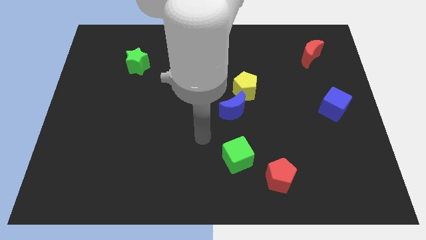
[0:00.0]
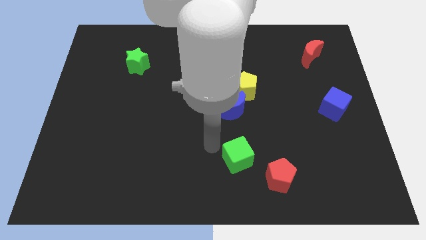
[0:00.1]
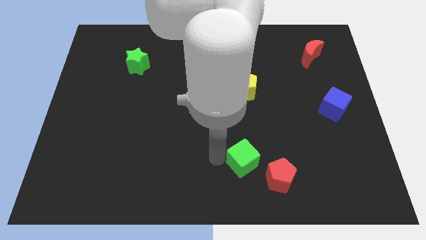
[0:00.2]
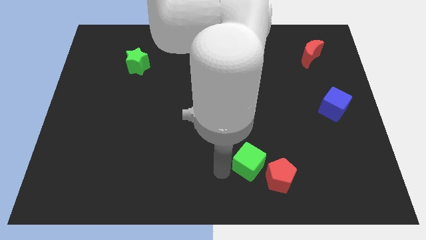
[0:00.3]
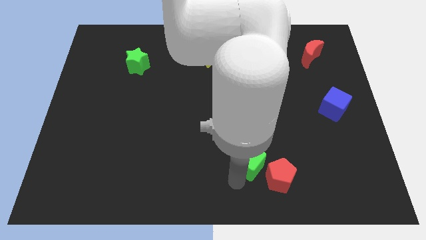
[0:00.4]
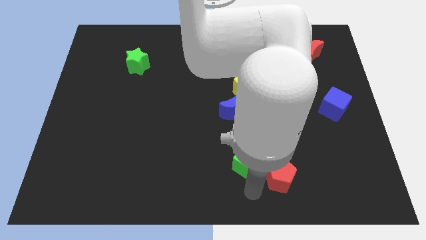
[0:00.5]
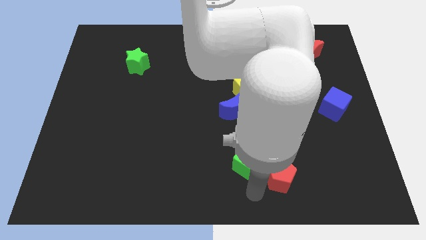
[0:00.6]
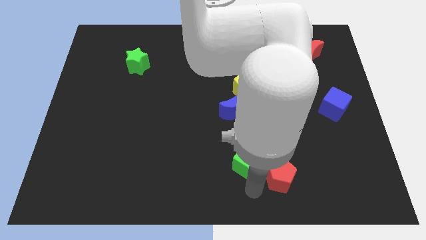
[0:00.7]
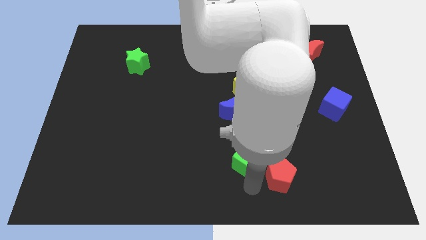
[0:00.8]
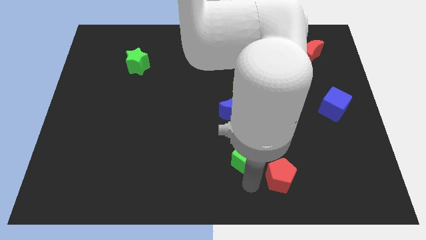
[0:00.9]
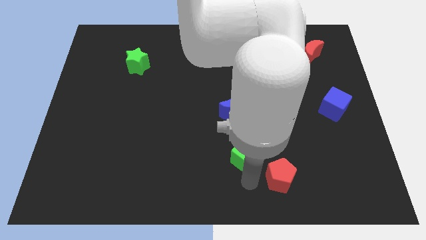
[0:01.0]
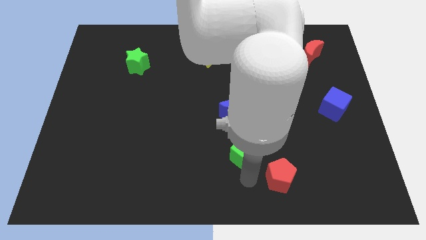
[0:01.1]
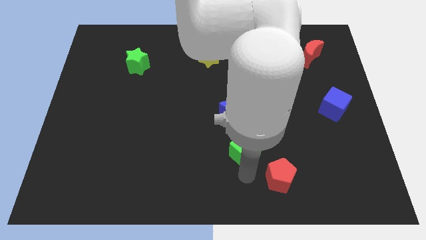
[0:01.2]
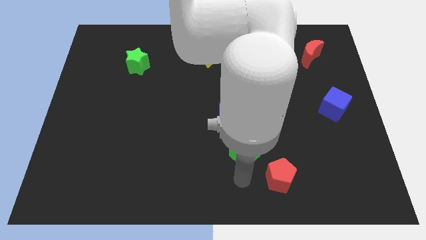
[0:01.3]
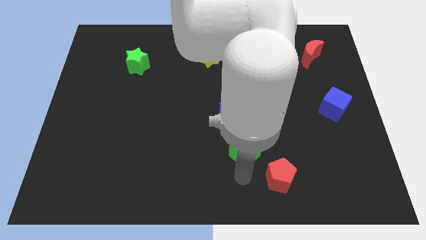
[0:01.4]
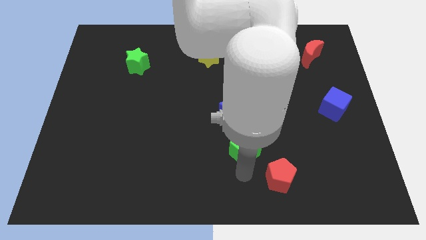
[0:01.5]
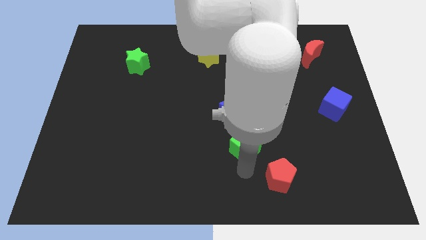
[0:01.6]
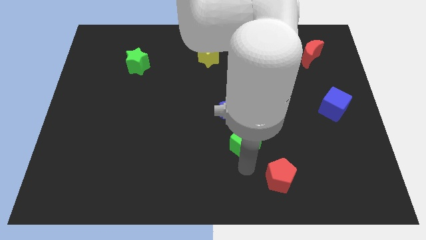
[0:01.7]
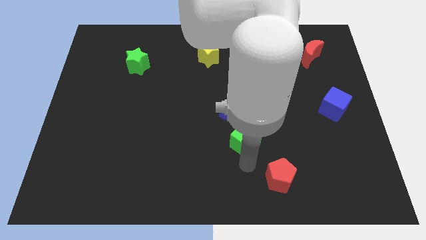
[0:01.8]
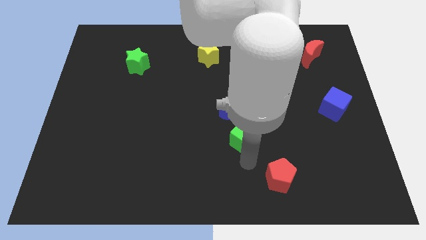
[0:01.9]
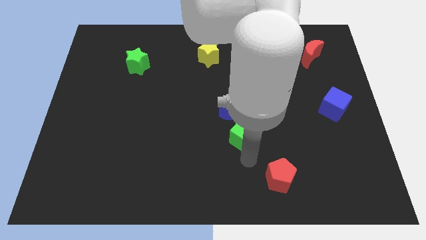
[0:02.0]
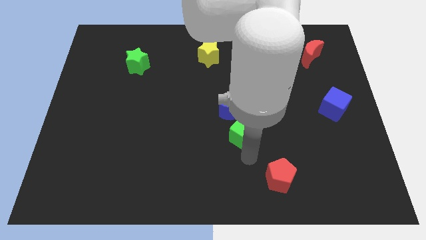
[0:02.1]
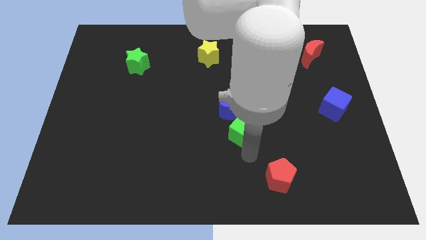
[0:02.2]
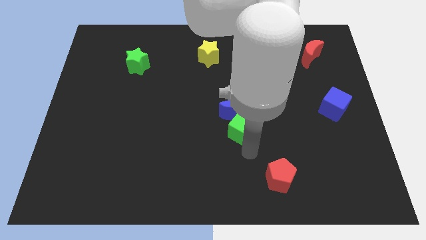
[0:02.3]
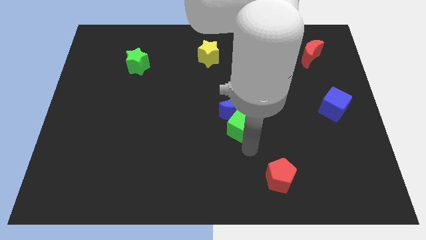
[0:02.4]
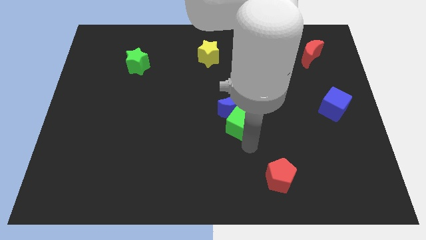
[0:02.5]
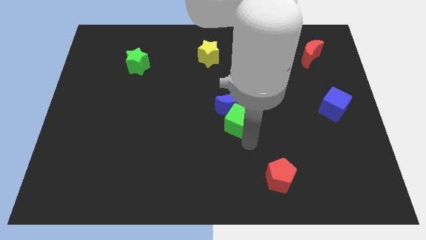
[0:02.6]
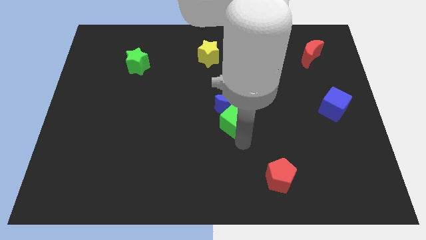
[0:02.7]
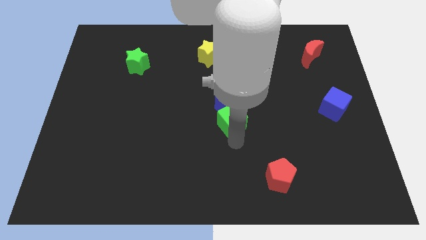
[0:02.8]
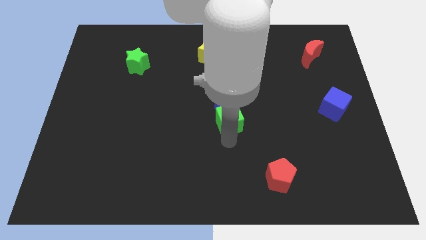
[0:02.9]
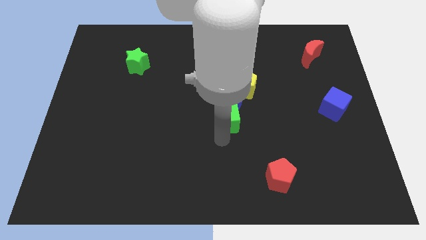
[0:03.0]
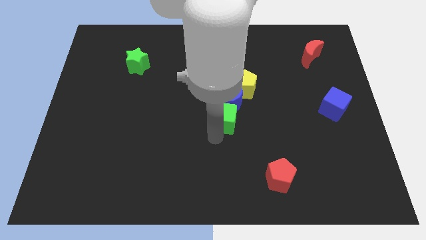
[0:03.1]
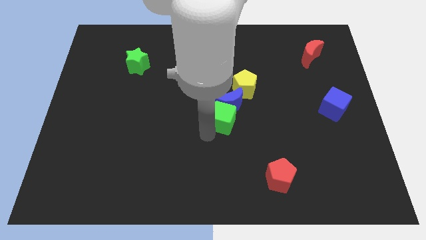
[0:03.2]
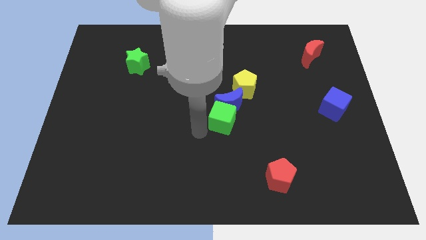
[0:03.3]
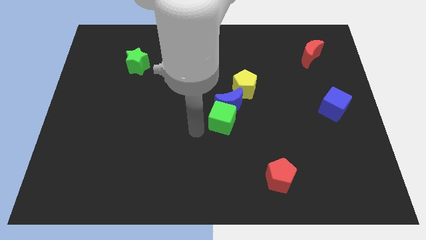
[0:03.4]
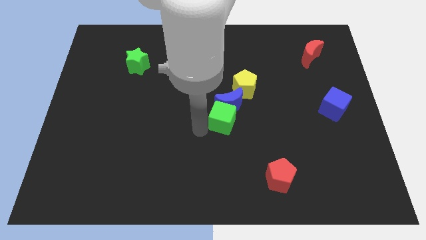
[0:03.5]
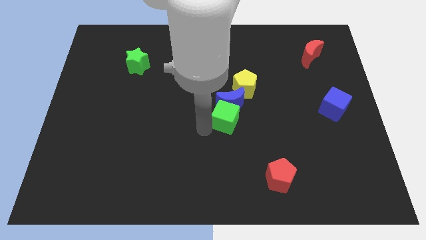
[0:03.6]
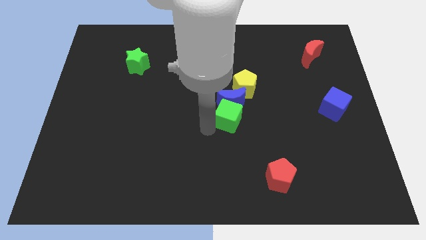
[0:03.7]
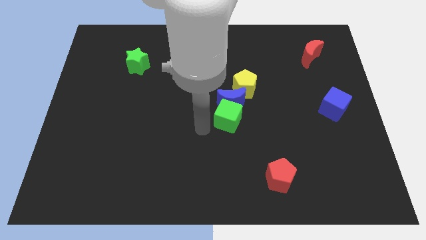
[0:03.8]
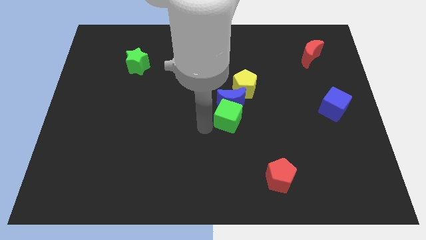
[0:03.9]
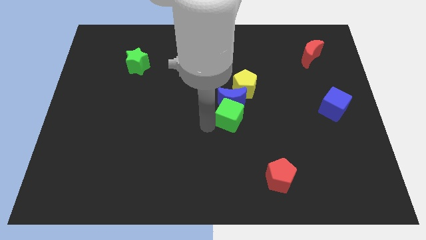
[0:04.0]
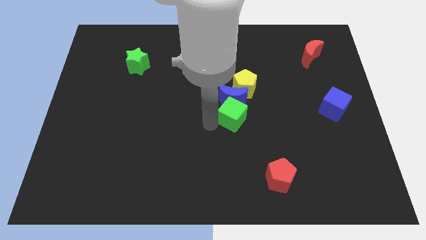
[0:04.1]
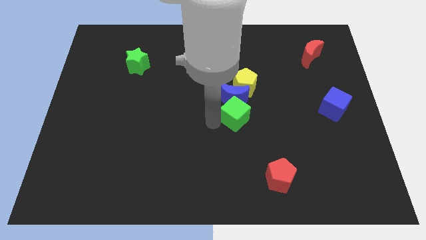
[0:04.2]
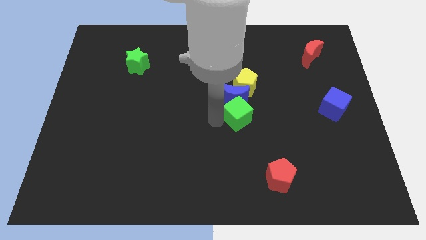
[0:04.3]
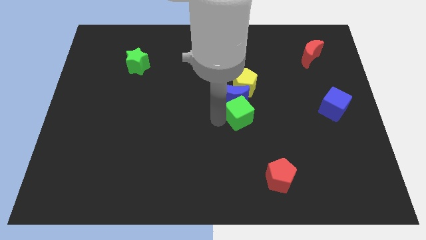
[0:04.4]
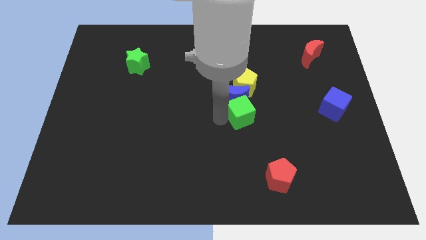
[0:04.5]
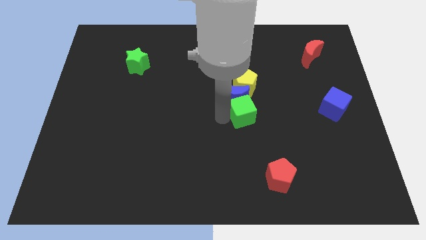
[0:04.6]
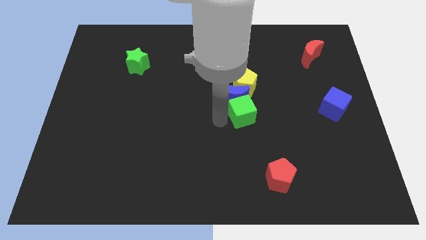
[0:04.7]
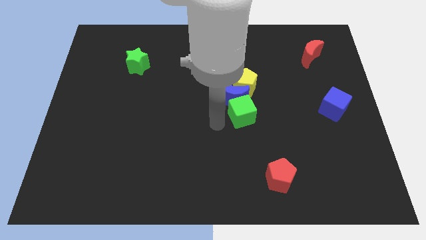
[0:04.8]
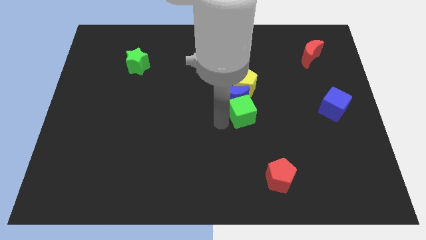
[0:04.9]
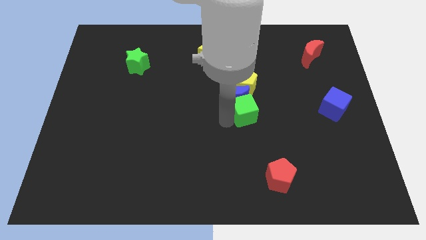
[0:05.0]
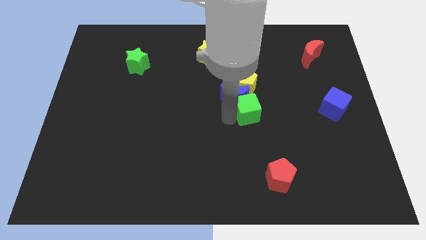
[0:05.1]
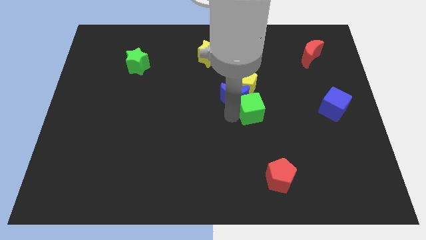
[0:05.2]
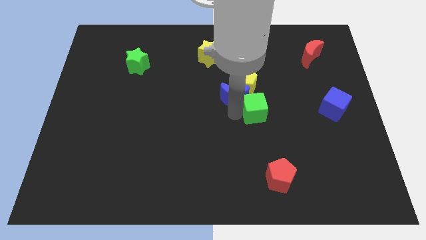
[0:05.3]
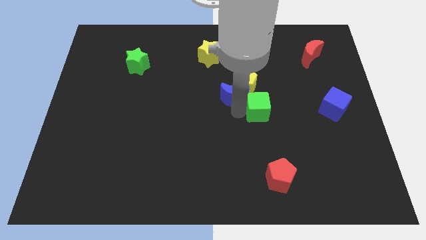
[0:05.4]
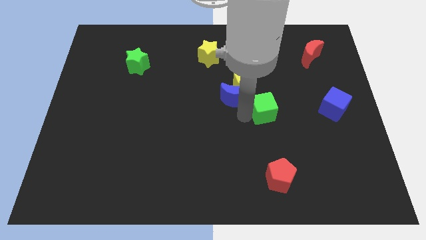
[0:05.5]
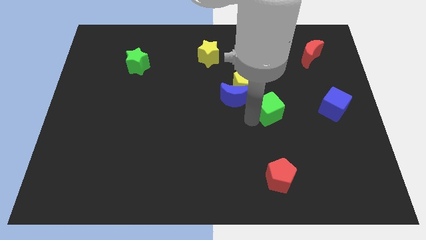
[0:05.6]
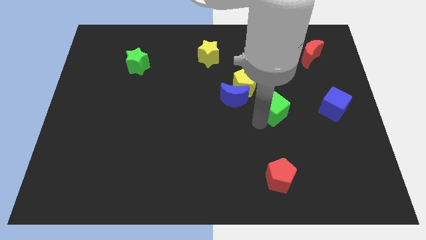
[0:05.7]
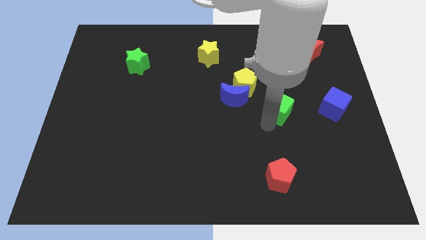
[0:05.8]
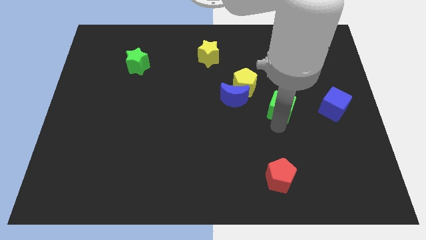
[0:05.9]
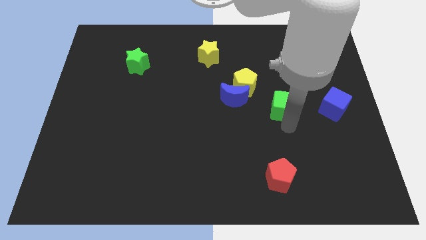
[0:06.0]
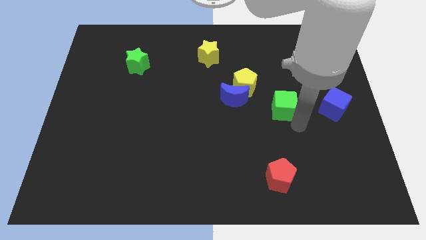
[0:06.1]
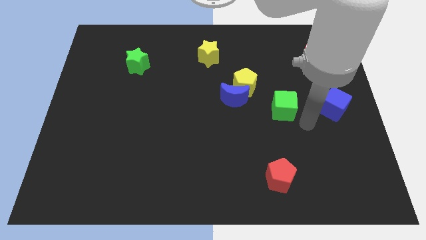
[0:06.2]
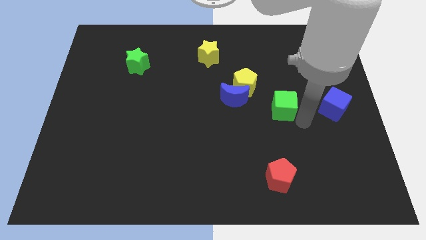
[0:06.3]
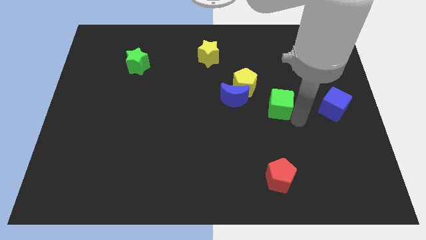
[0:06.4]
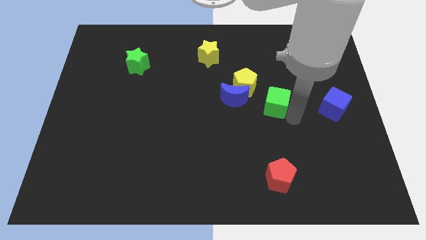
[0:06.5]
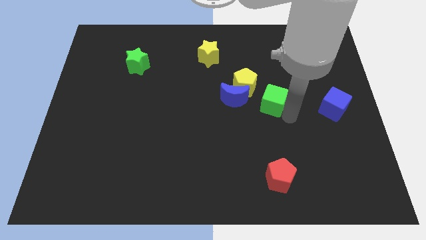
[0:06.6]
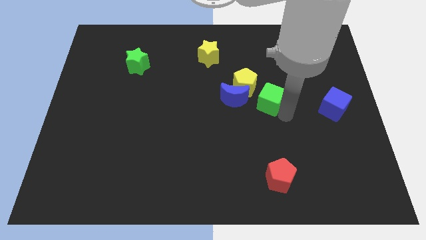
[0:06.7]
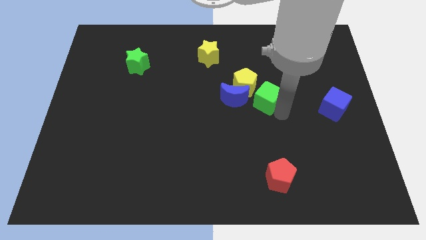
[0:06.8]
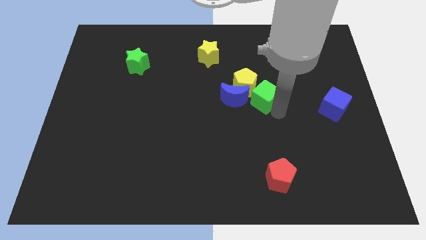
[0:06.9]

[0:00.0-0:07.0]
push the green cube close to the yellow pentagon

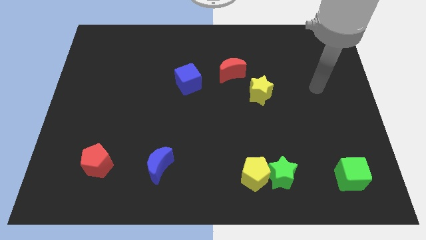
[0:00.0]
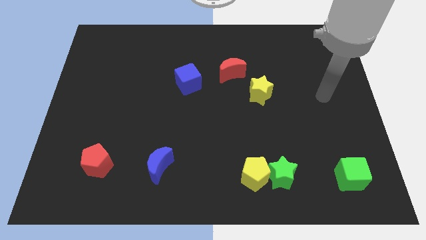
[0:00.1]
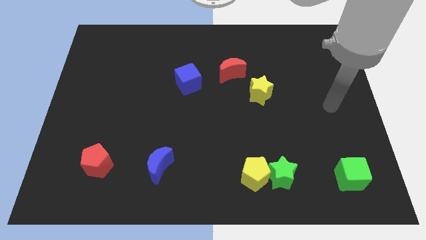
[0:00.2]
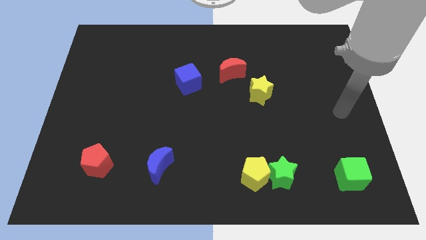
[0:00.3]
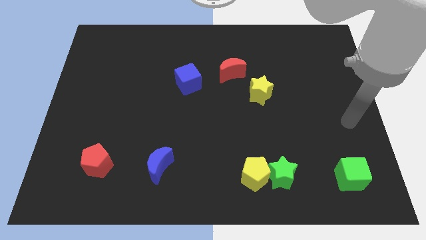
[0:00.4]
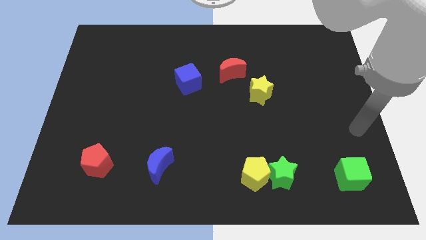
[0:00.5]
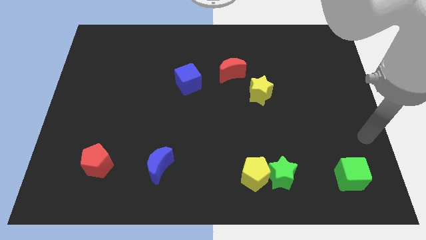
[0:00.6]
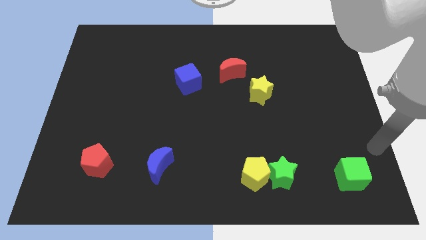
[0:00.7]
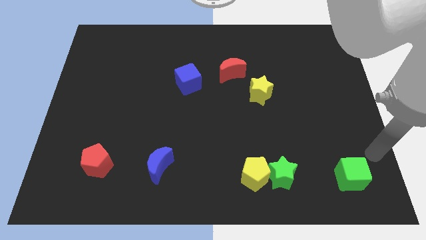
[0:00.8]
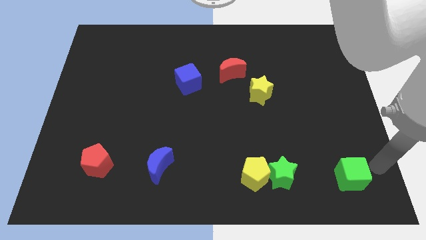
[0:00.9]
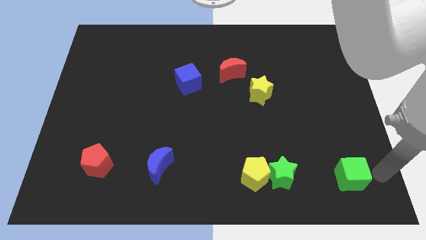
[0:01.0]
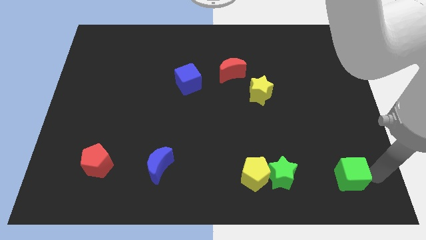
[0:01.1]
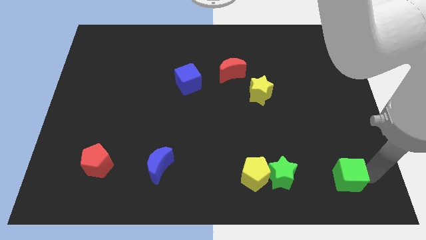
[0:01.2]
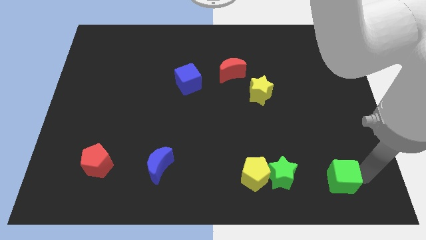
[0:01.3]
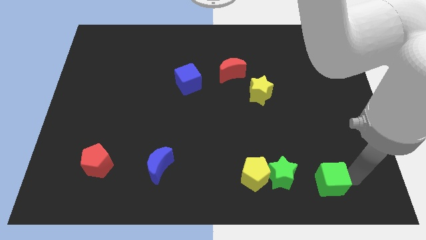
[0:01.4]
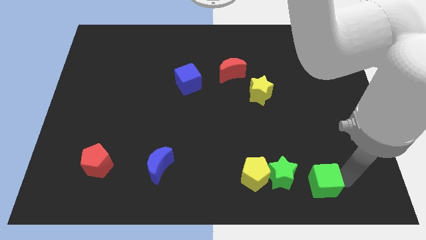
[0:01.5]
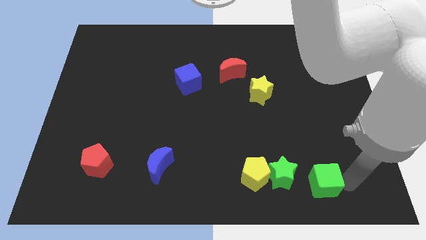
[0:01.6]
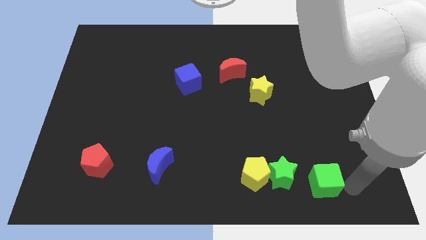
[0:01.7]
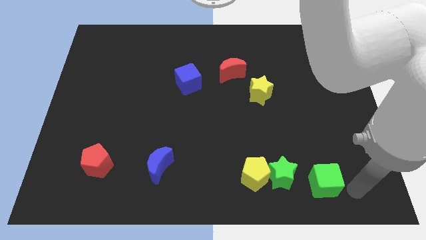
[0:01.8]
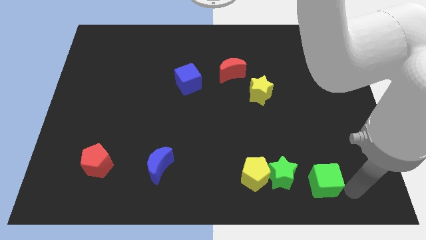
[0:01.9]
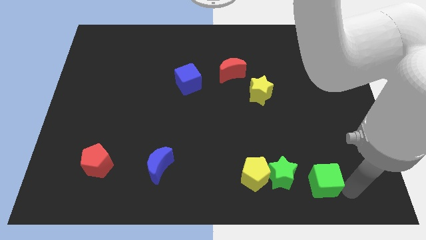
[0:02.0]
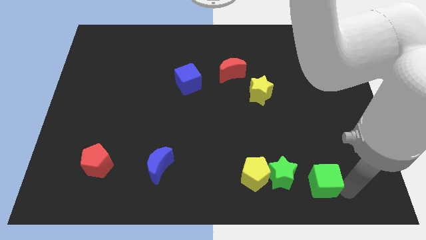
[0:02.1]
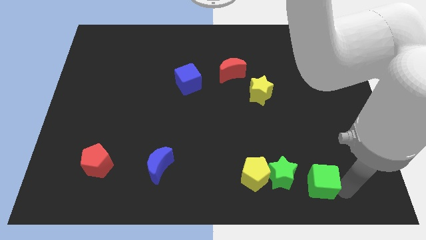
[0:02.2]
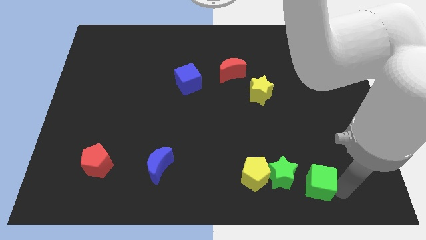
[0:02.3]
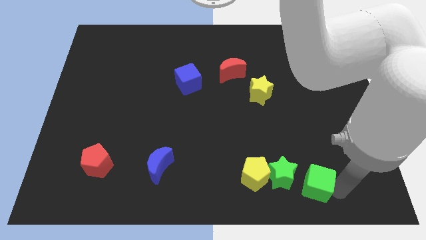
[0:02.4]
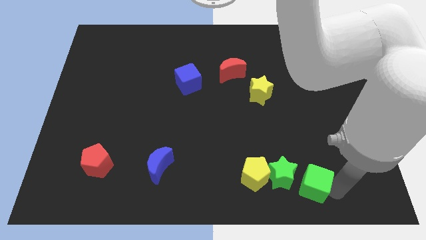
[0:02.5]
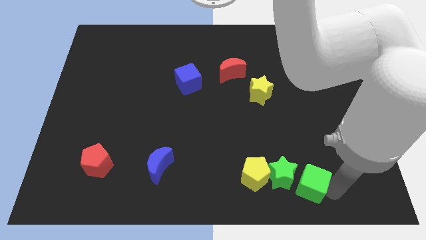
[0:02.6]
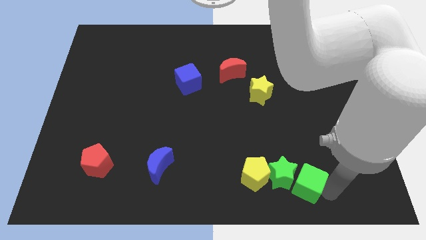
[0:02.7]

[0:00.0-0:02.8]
put the green cube to the green star
